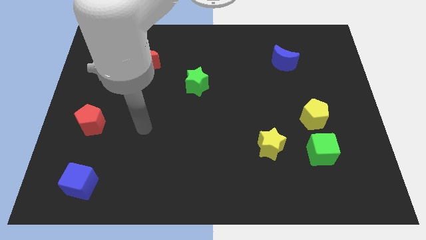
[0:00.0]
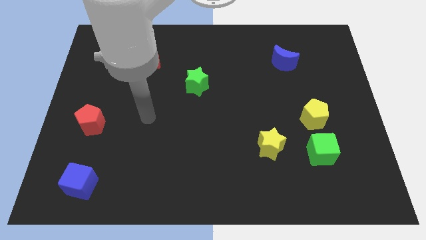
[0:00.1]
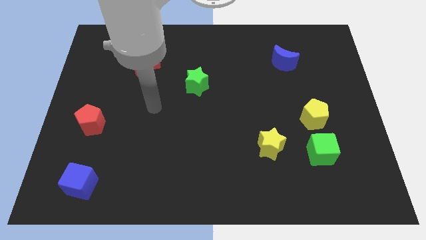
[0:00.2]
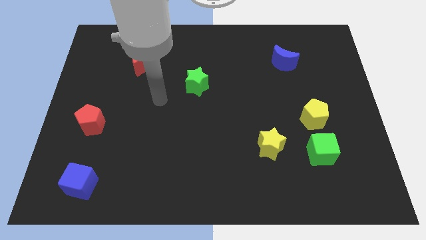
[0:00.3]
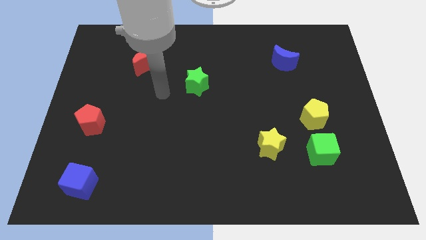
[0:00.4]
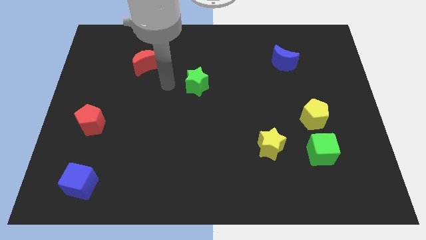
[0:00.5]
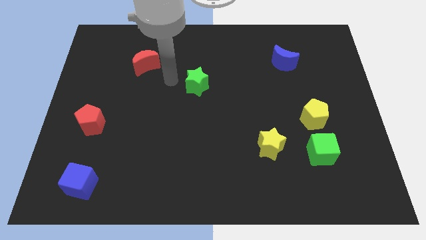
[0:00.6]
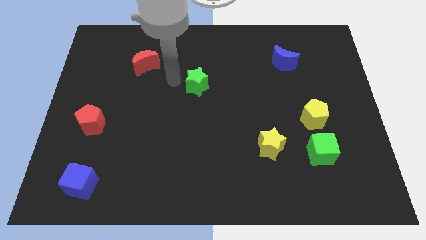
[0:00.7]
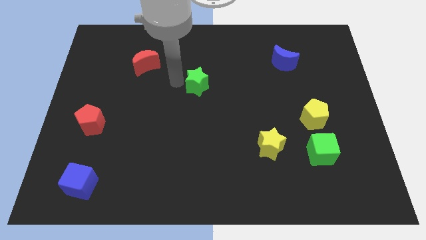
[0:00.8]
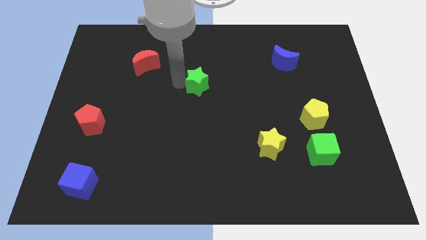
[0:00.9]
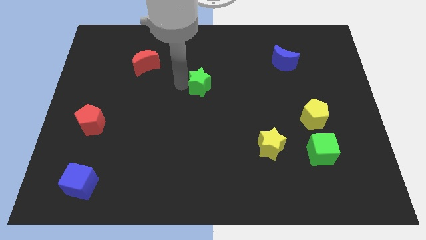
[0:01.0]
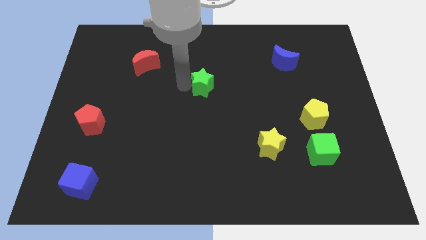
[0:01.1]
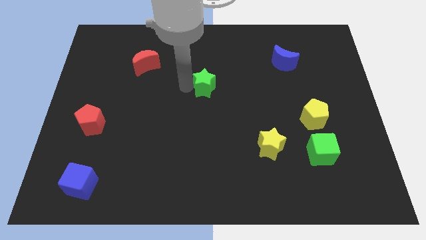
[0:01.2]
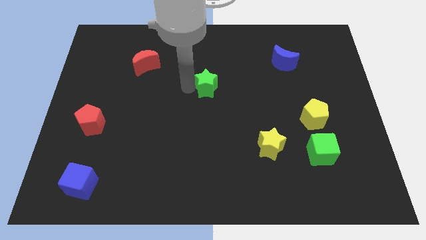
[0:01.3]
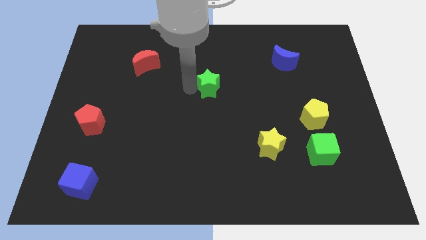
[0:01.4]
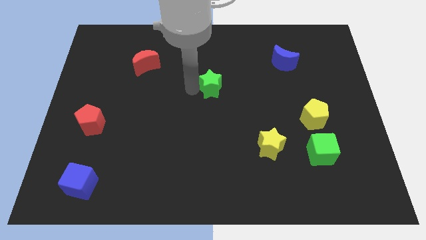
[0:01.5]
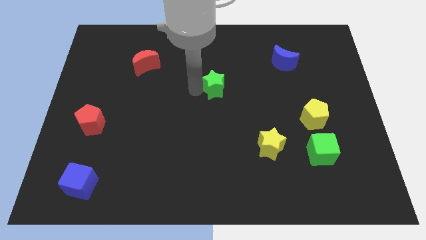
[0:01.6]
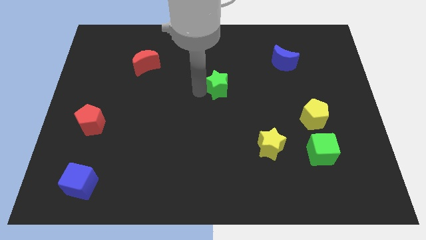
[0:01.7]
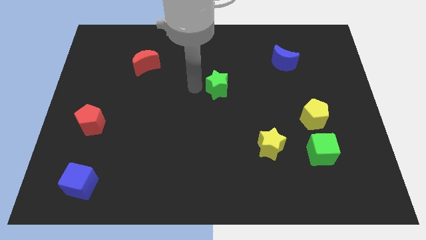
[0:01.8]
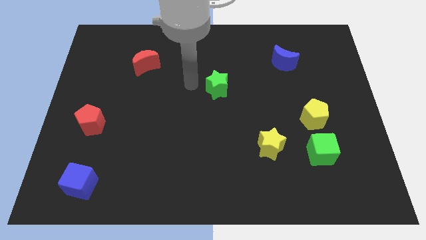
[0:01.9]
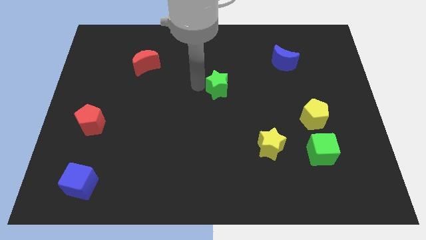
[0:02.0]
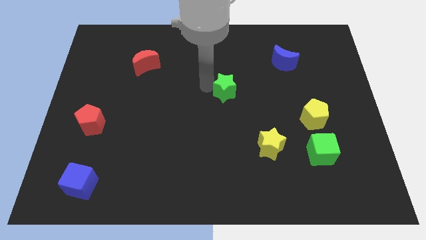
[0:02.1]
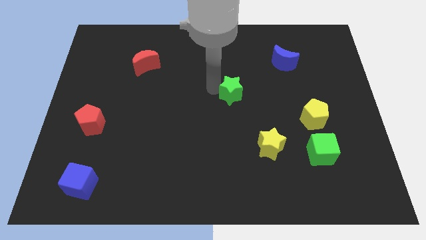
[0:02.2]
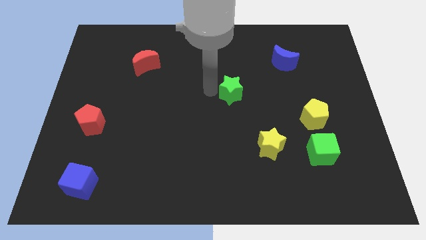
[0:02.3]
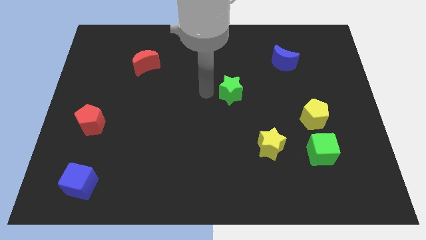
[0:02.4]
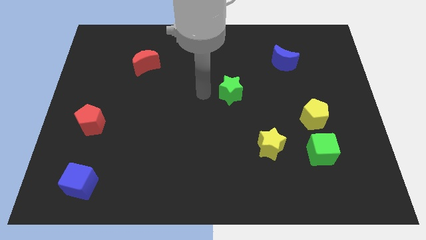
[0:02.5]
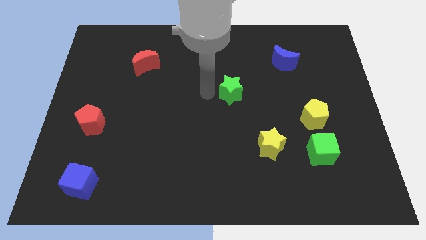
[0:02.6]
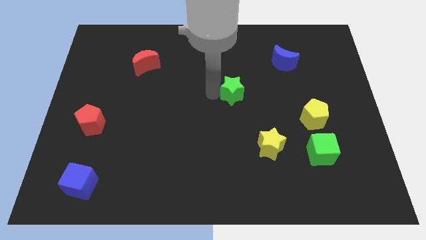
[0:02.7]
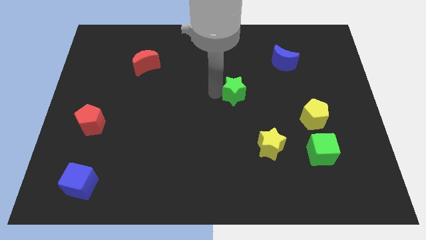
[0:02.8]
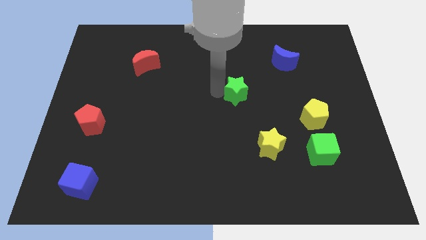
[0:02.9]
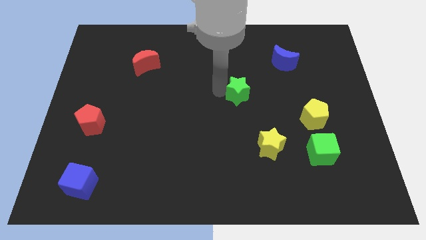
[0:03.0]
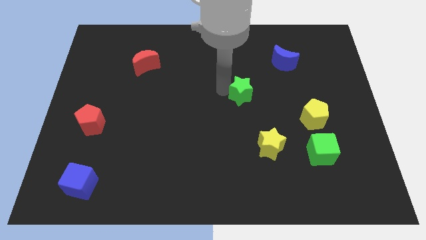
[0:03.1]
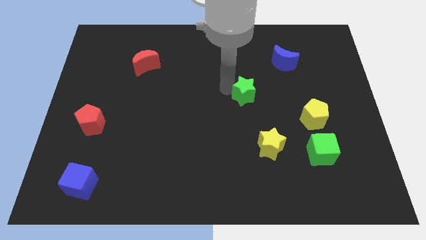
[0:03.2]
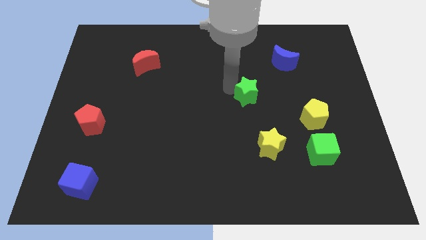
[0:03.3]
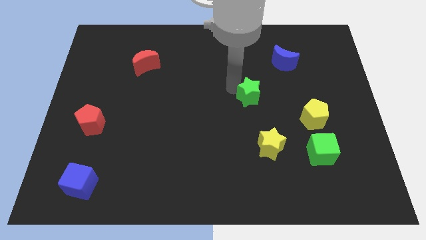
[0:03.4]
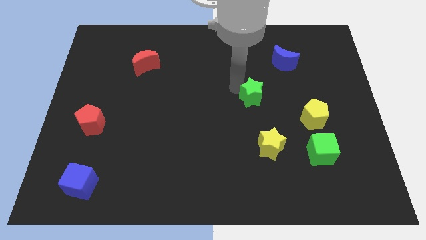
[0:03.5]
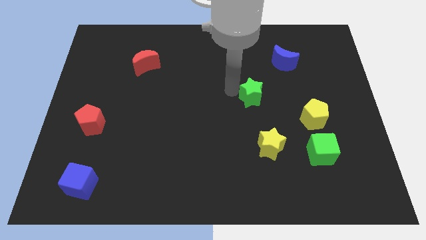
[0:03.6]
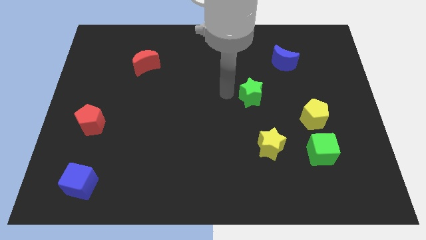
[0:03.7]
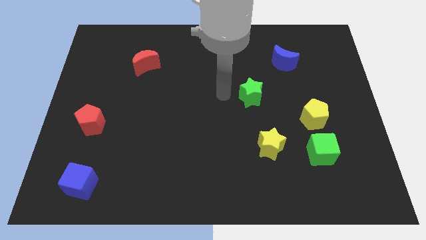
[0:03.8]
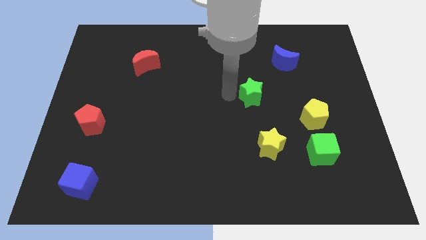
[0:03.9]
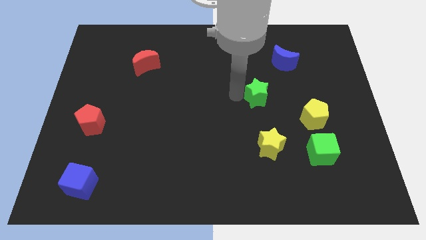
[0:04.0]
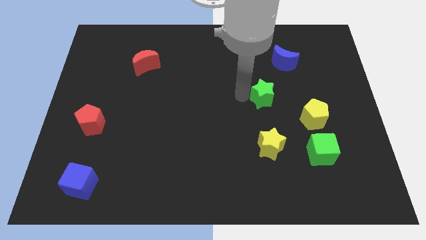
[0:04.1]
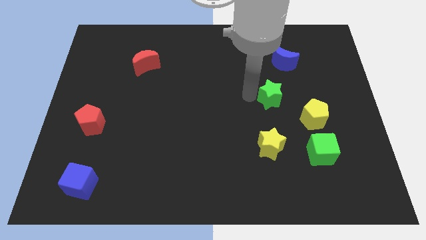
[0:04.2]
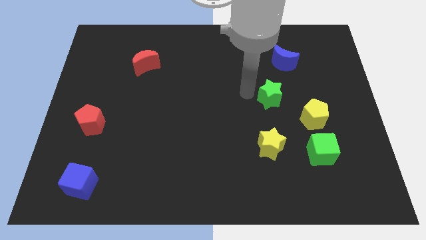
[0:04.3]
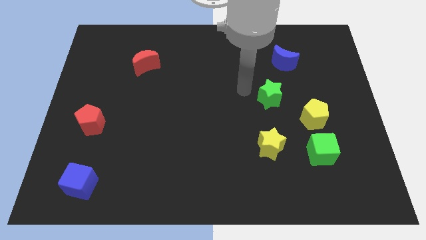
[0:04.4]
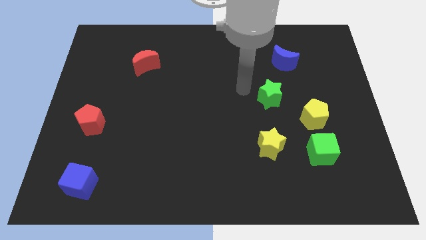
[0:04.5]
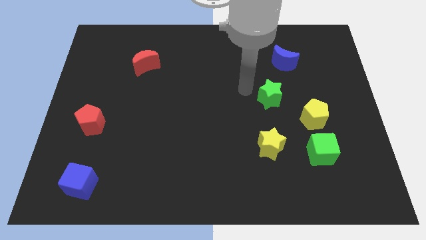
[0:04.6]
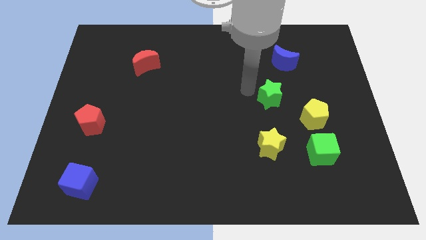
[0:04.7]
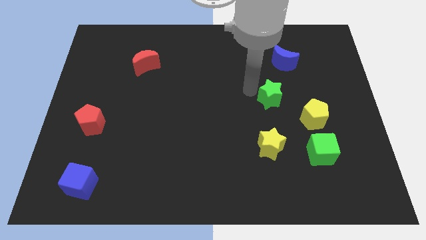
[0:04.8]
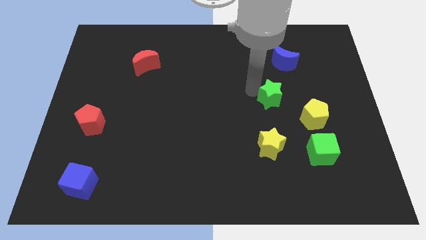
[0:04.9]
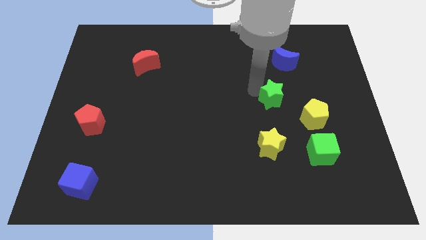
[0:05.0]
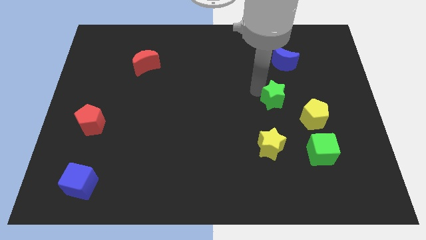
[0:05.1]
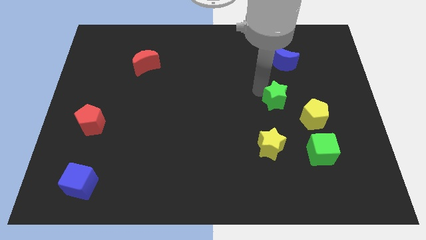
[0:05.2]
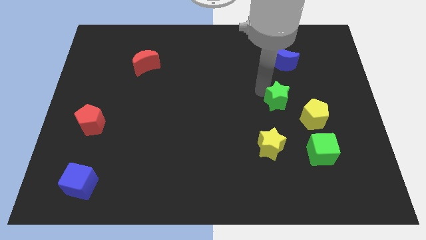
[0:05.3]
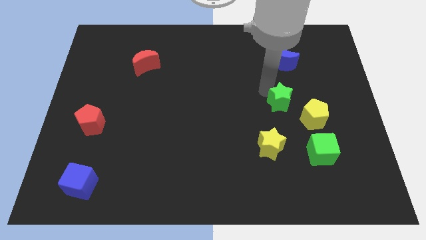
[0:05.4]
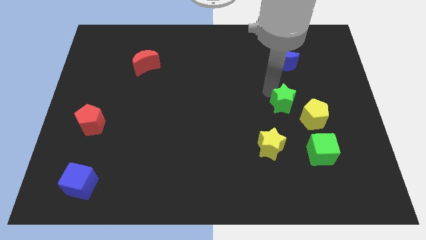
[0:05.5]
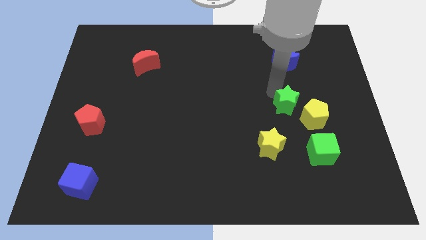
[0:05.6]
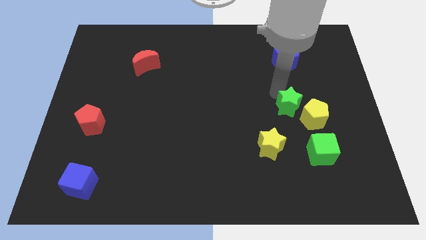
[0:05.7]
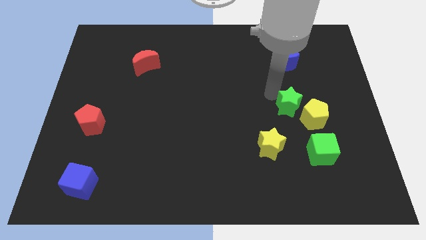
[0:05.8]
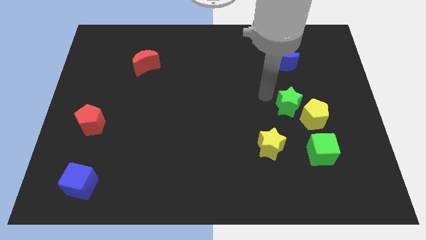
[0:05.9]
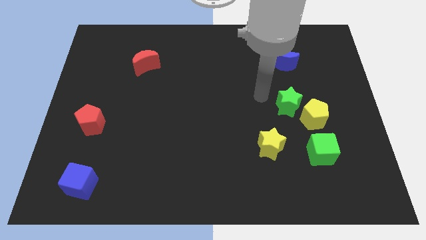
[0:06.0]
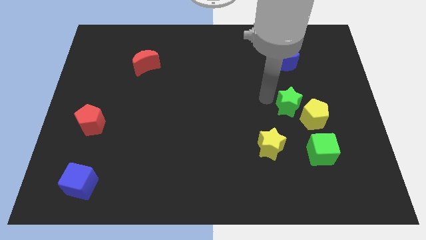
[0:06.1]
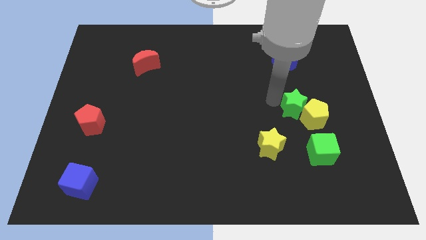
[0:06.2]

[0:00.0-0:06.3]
put the green star to the top of the green cube

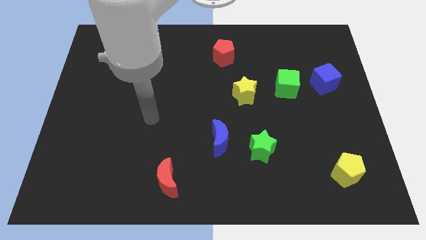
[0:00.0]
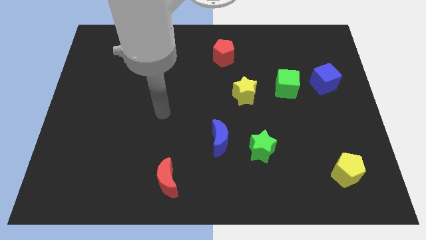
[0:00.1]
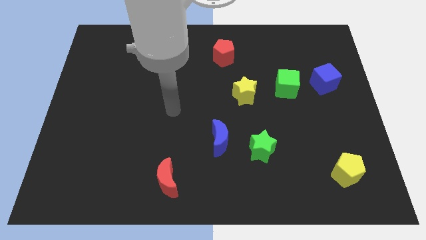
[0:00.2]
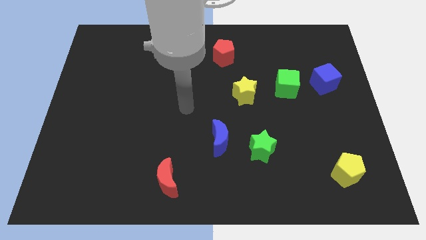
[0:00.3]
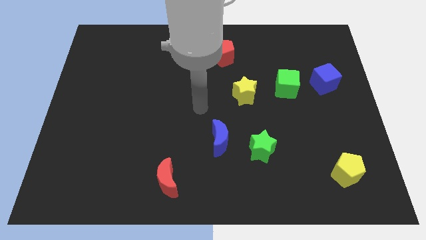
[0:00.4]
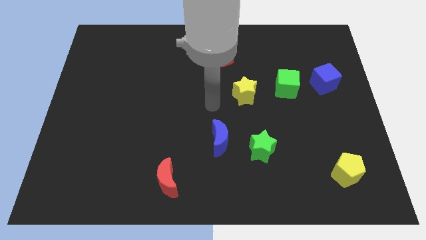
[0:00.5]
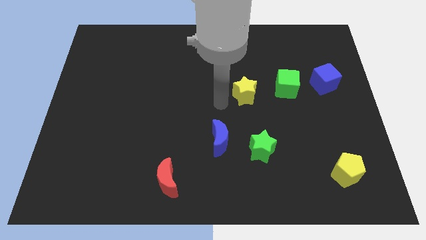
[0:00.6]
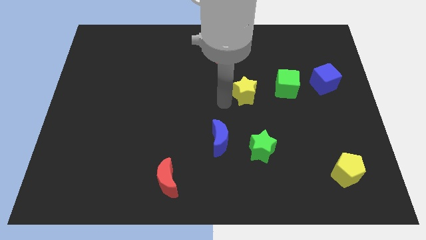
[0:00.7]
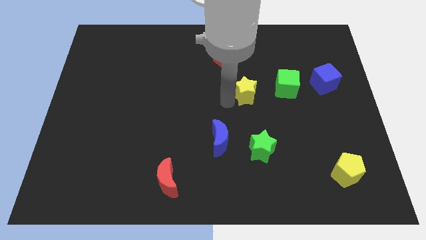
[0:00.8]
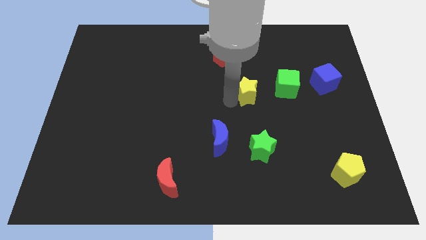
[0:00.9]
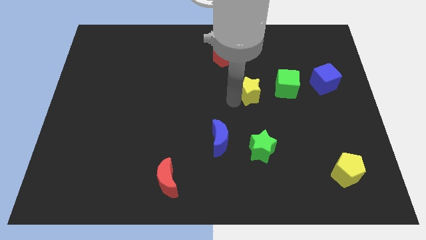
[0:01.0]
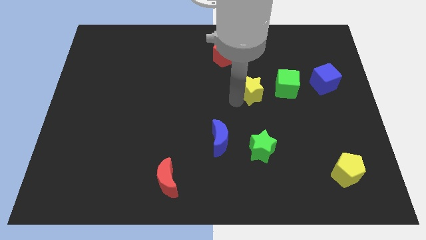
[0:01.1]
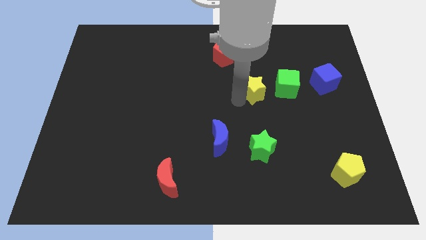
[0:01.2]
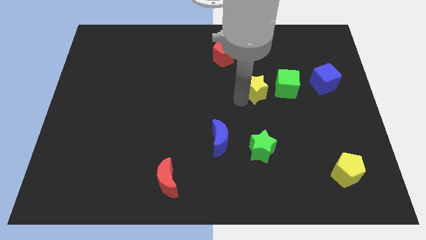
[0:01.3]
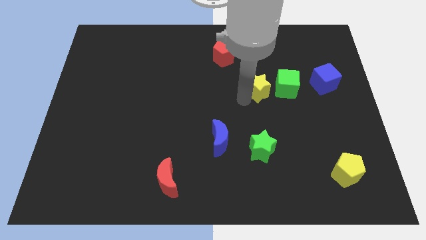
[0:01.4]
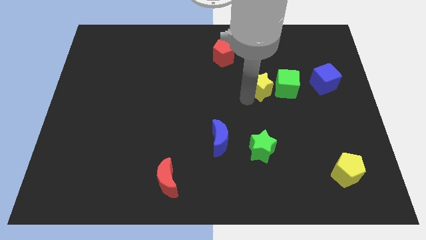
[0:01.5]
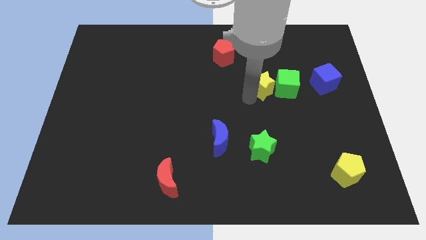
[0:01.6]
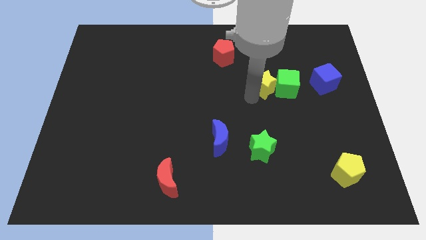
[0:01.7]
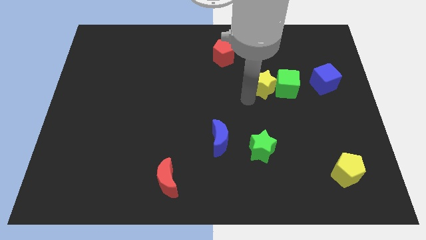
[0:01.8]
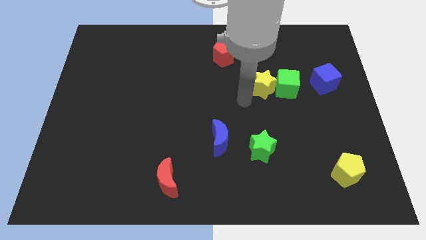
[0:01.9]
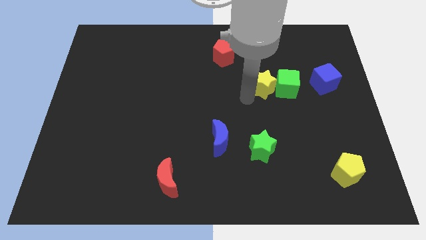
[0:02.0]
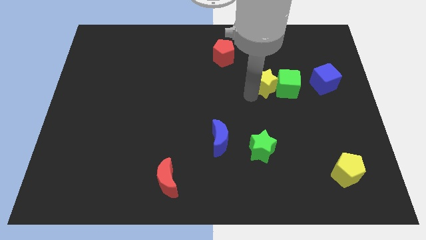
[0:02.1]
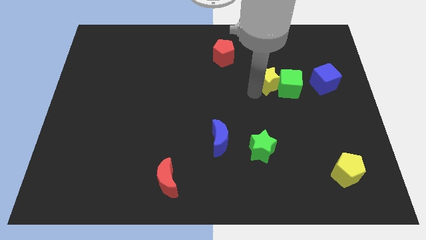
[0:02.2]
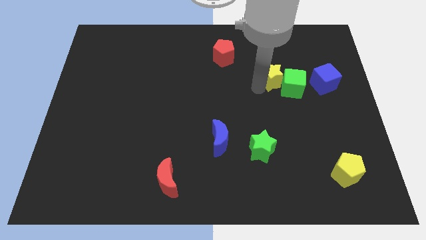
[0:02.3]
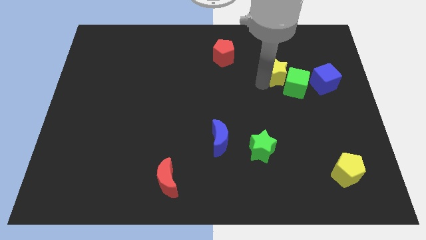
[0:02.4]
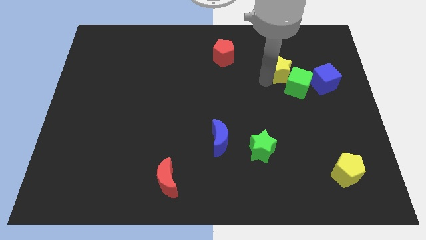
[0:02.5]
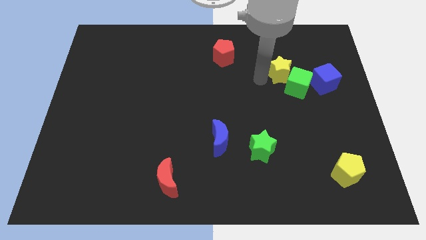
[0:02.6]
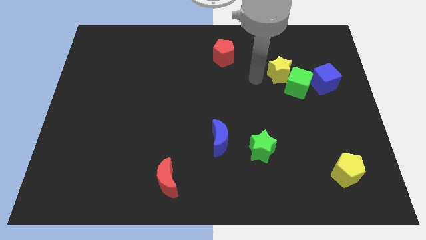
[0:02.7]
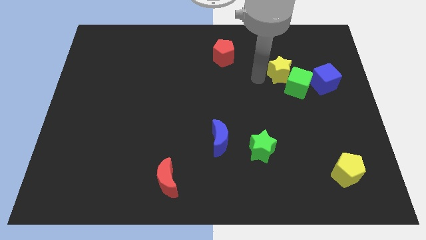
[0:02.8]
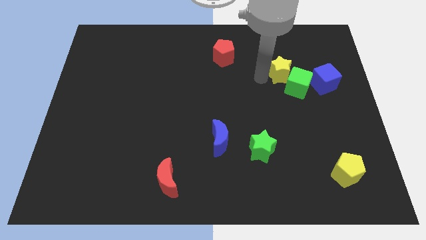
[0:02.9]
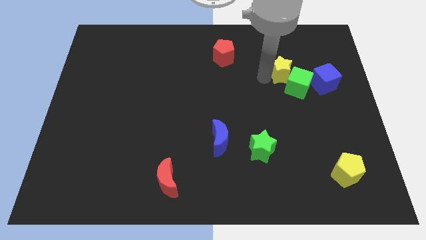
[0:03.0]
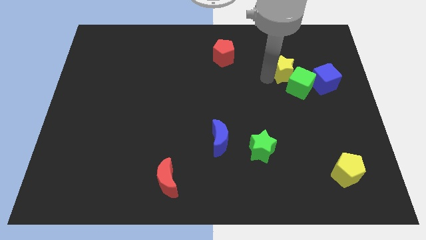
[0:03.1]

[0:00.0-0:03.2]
slide the yellow star diagonally up and to the left of the blue cube
